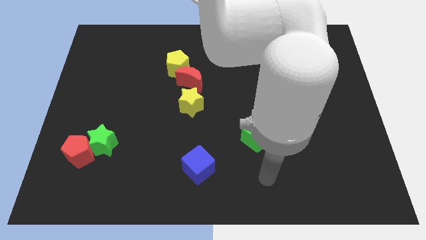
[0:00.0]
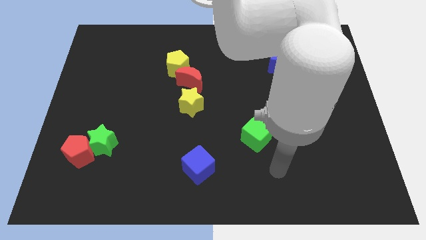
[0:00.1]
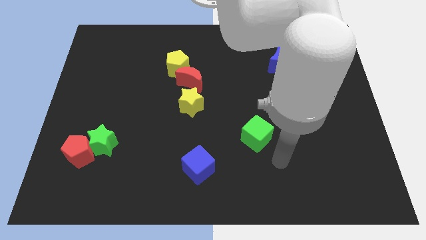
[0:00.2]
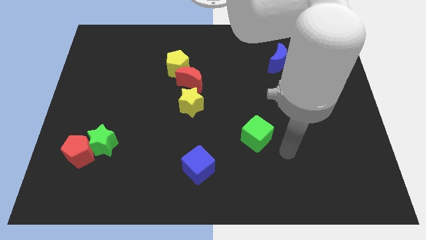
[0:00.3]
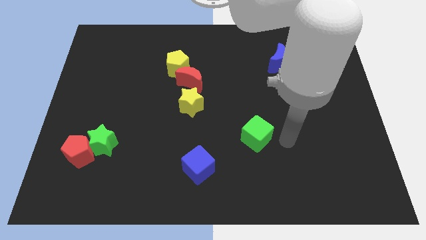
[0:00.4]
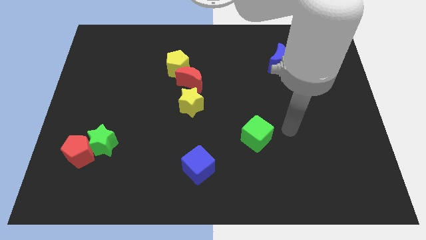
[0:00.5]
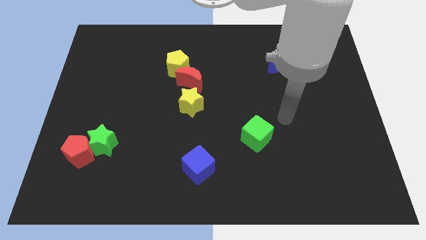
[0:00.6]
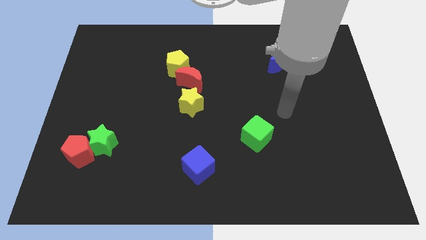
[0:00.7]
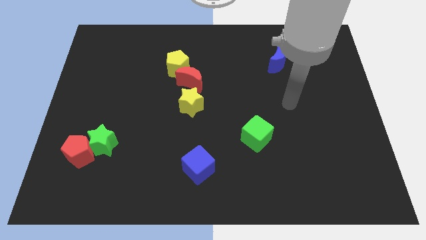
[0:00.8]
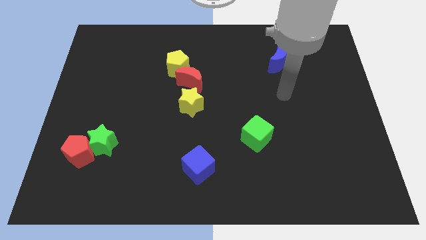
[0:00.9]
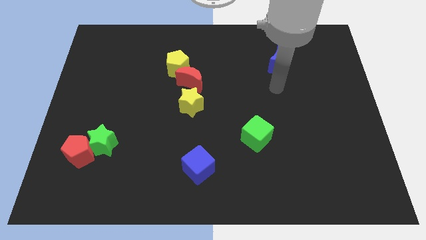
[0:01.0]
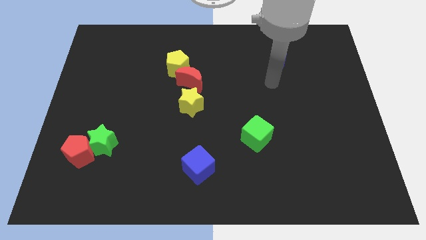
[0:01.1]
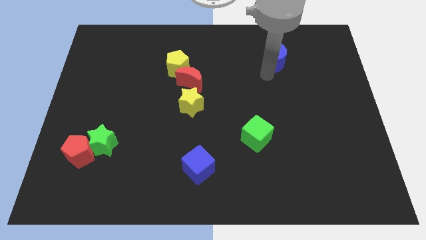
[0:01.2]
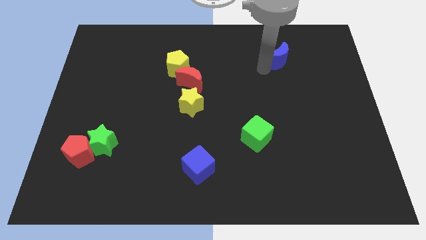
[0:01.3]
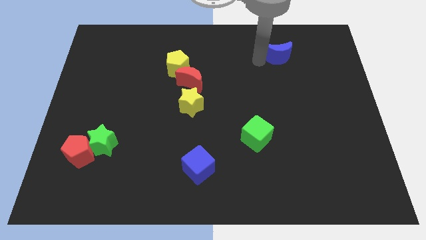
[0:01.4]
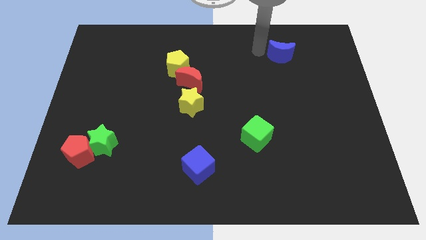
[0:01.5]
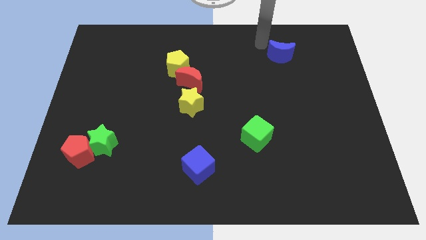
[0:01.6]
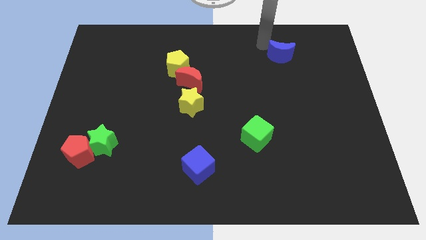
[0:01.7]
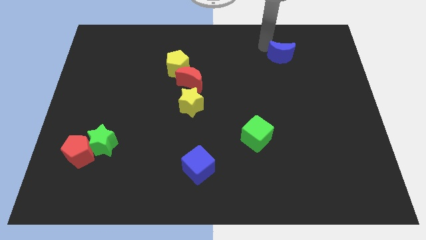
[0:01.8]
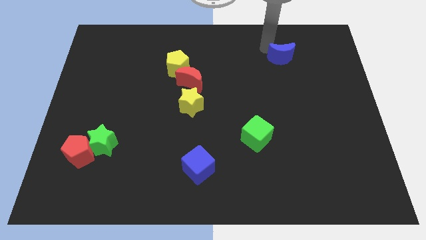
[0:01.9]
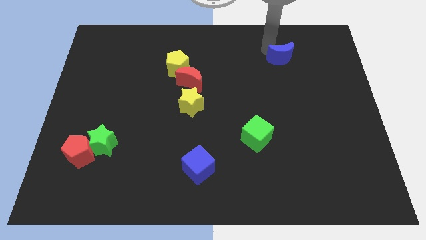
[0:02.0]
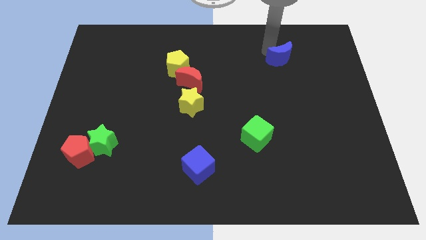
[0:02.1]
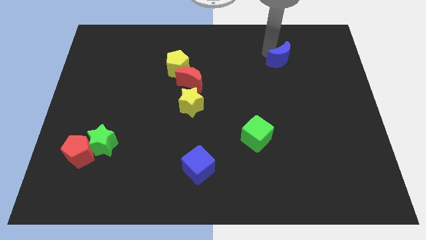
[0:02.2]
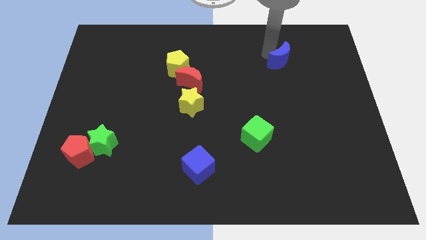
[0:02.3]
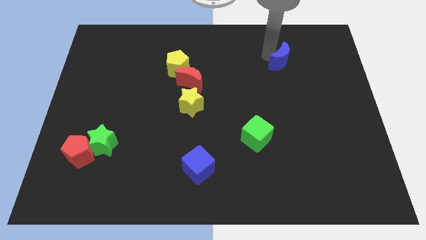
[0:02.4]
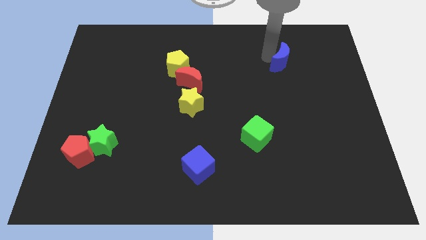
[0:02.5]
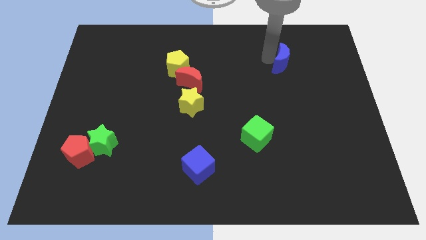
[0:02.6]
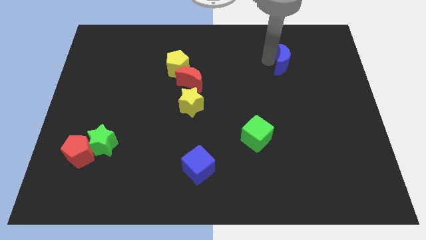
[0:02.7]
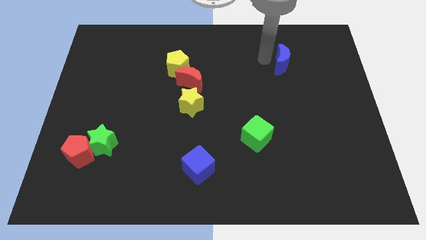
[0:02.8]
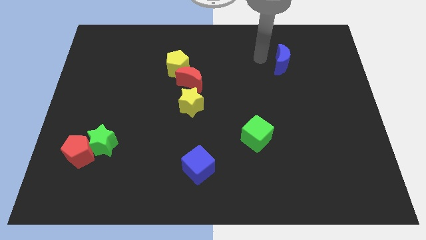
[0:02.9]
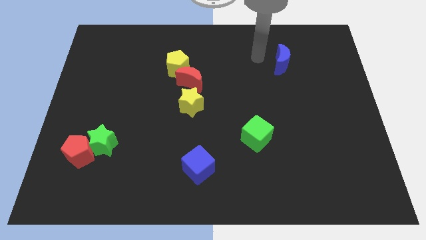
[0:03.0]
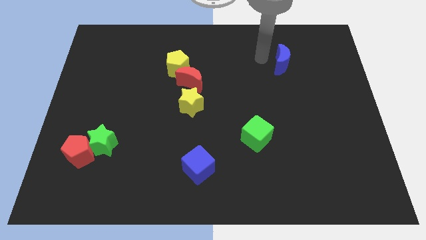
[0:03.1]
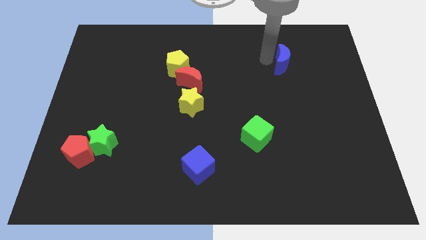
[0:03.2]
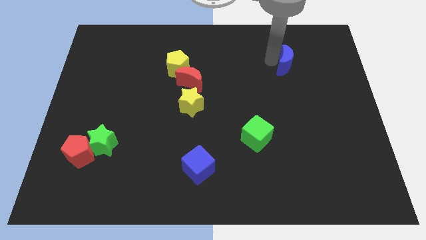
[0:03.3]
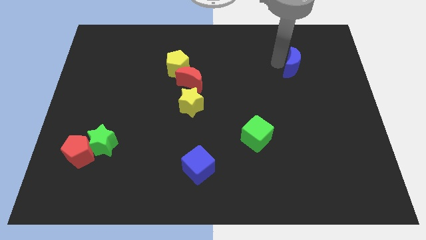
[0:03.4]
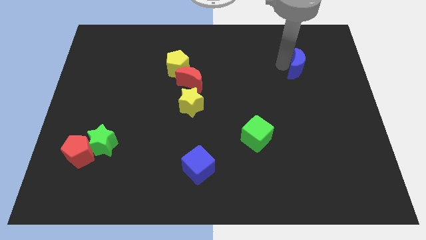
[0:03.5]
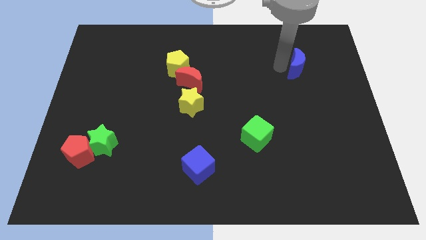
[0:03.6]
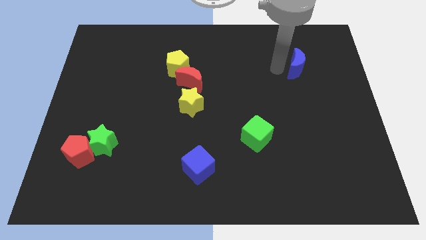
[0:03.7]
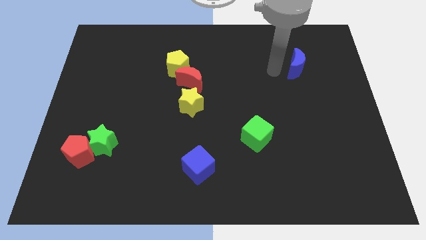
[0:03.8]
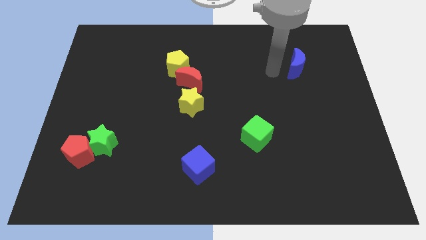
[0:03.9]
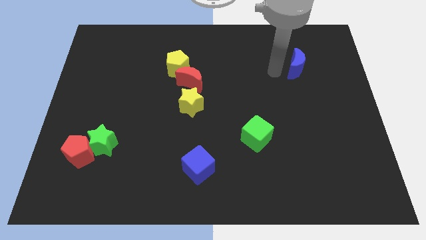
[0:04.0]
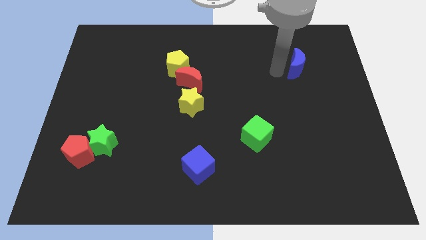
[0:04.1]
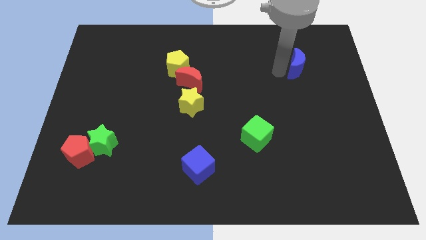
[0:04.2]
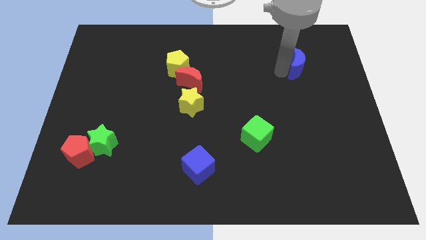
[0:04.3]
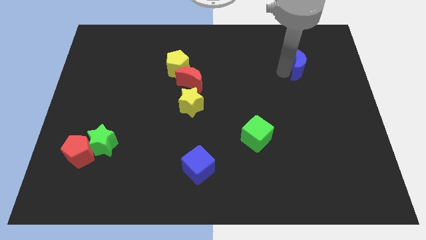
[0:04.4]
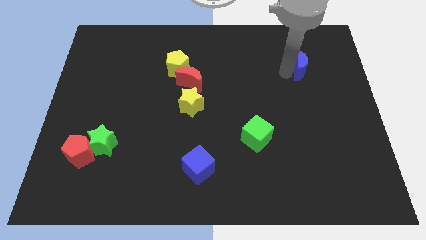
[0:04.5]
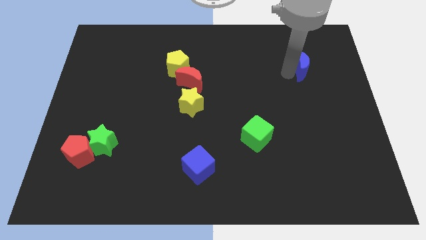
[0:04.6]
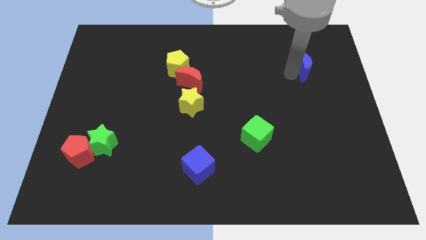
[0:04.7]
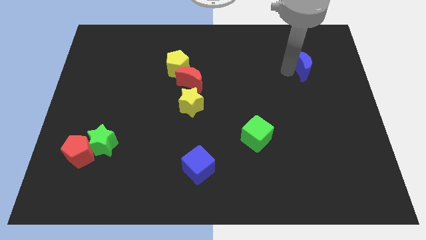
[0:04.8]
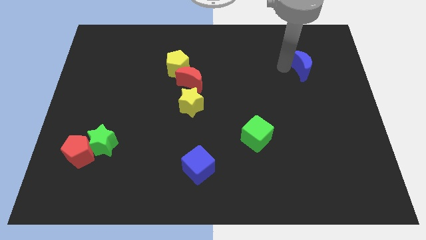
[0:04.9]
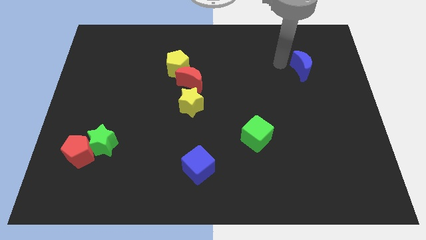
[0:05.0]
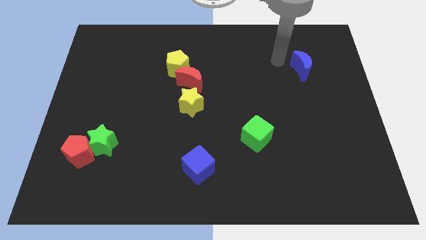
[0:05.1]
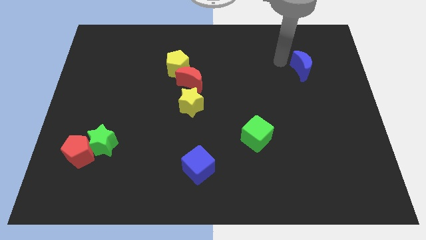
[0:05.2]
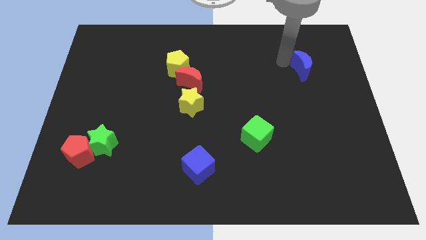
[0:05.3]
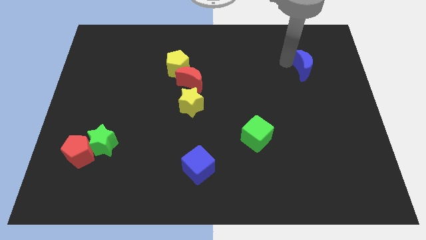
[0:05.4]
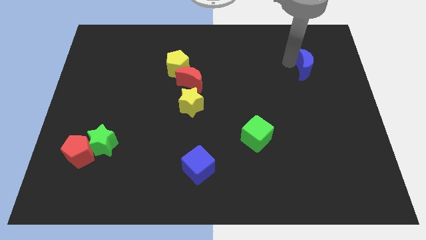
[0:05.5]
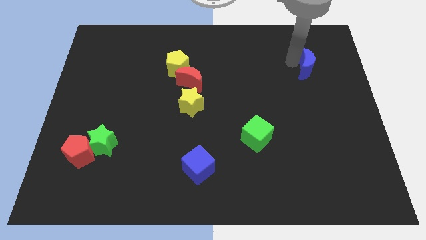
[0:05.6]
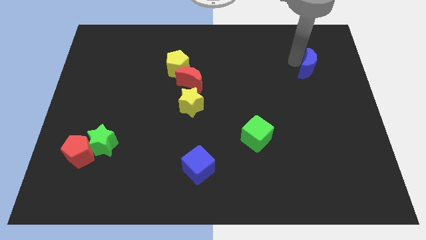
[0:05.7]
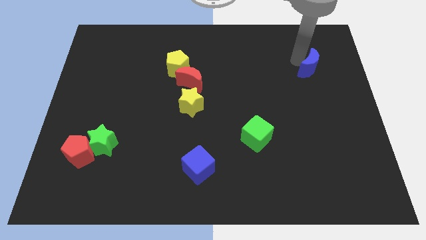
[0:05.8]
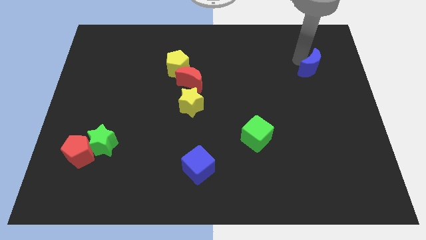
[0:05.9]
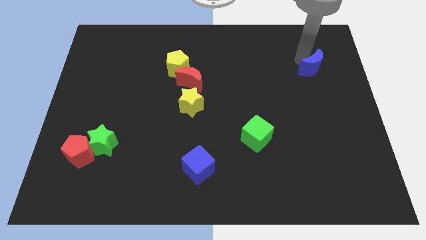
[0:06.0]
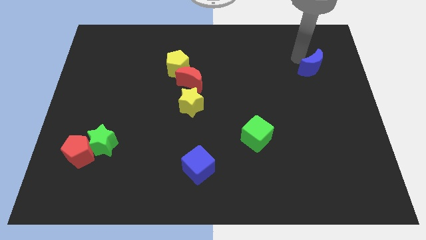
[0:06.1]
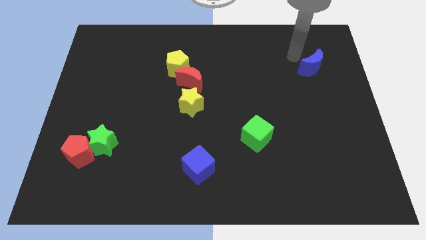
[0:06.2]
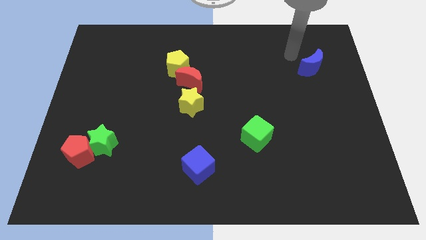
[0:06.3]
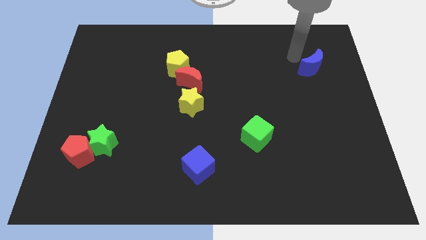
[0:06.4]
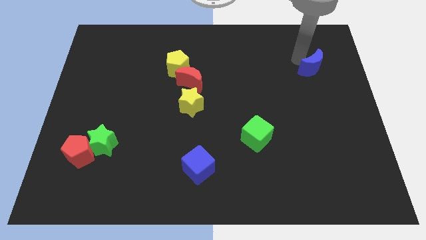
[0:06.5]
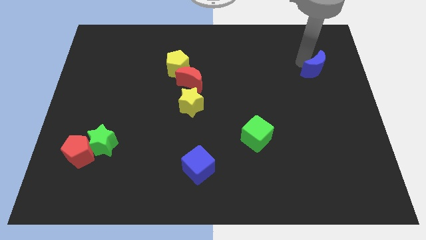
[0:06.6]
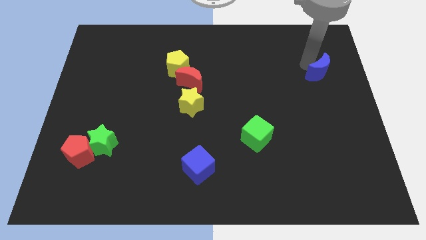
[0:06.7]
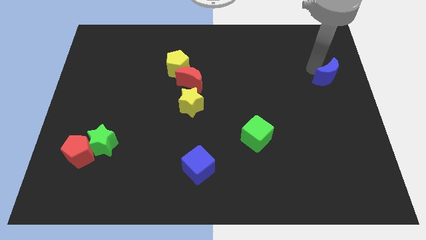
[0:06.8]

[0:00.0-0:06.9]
move the blue moon to the right side

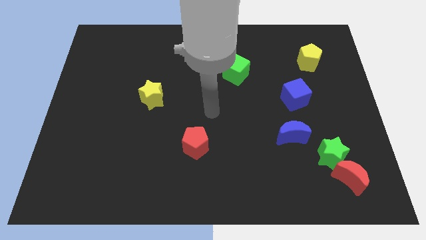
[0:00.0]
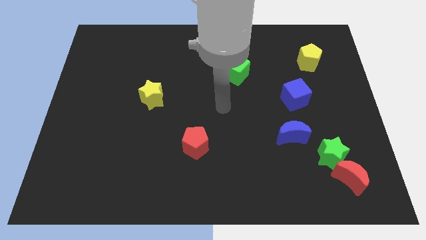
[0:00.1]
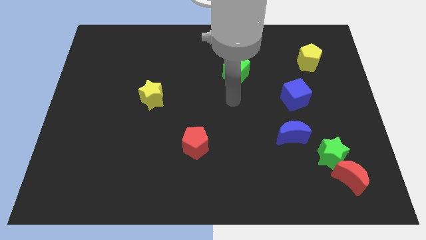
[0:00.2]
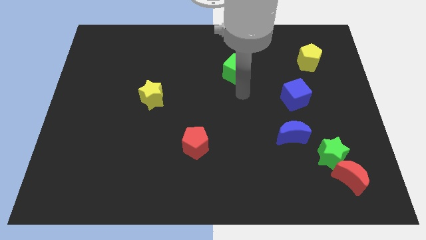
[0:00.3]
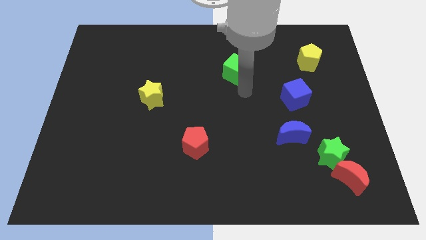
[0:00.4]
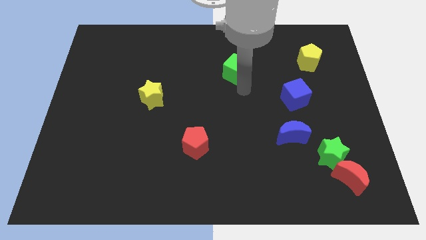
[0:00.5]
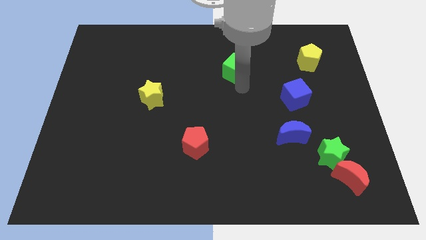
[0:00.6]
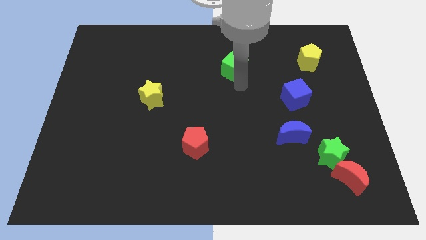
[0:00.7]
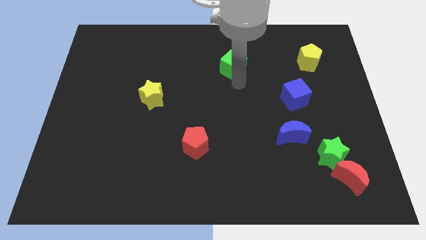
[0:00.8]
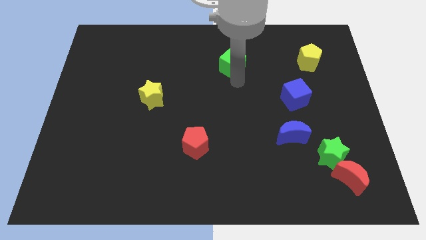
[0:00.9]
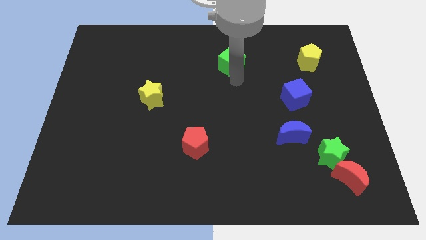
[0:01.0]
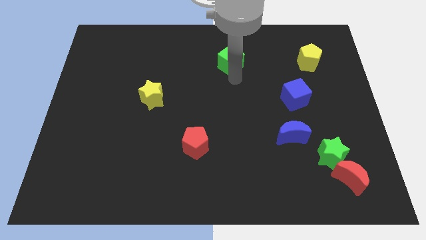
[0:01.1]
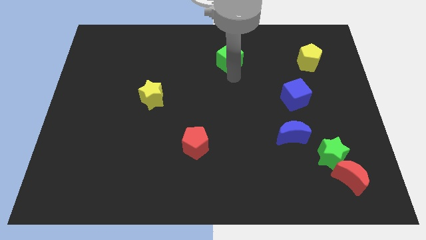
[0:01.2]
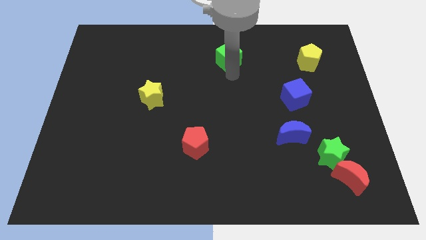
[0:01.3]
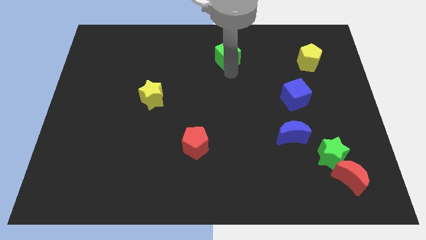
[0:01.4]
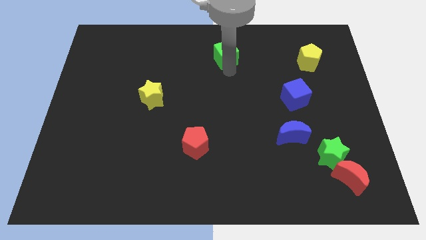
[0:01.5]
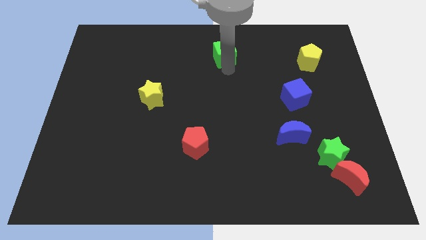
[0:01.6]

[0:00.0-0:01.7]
put the green cube to the top
